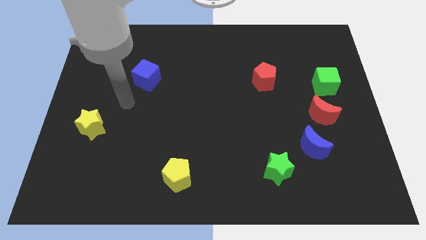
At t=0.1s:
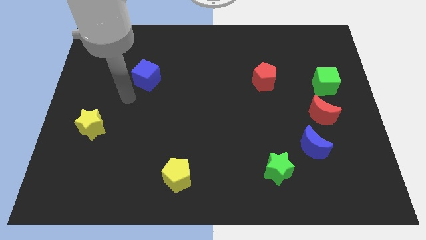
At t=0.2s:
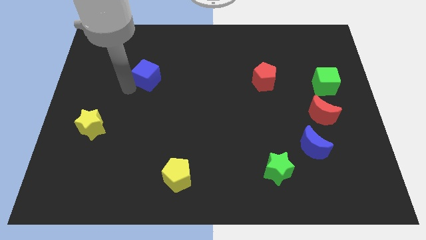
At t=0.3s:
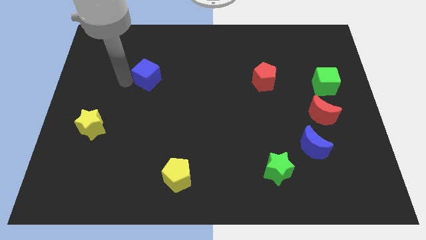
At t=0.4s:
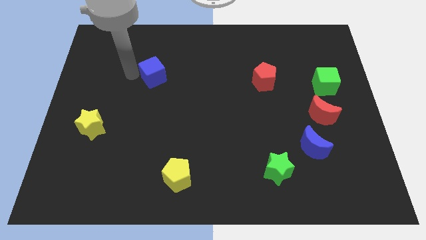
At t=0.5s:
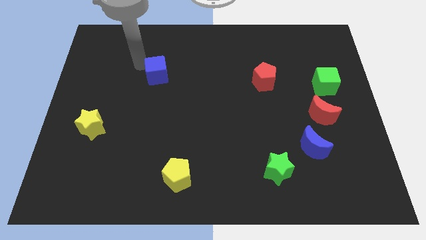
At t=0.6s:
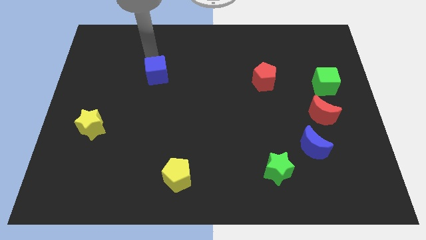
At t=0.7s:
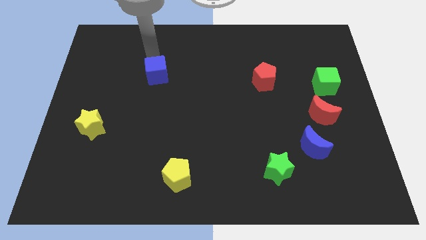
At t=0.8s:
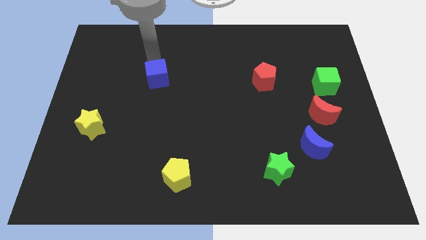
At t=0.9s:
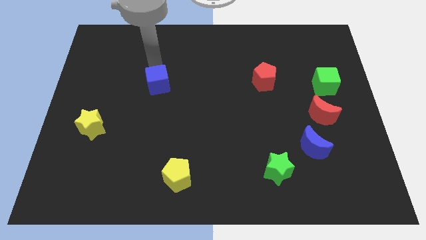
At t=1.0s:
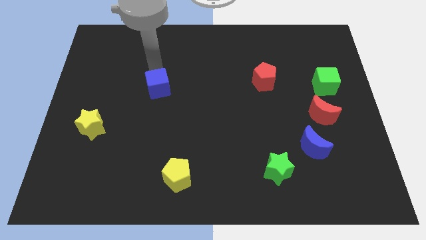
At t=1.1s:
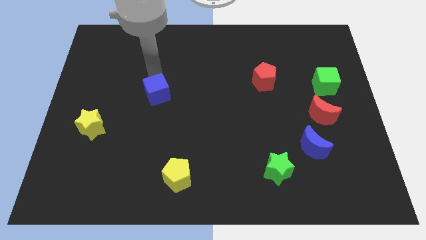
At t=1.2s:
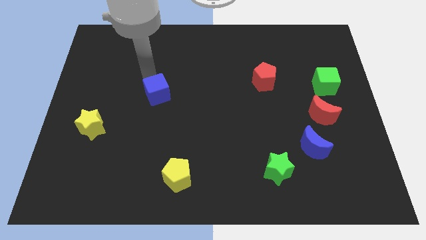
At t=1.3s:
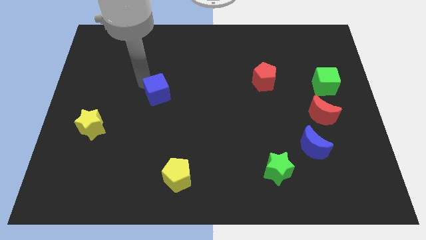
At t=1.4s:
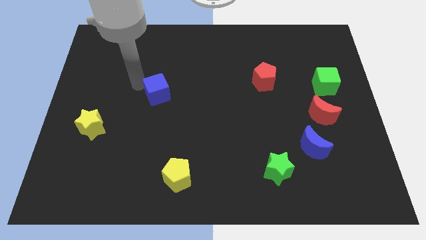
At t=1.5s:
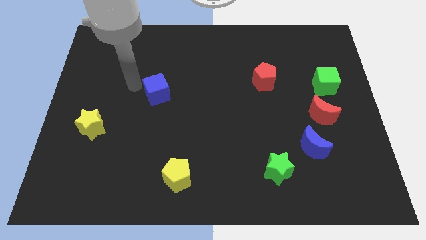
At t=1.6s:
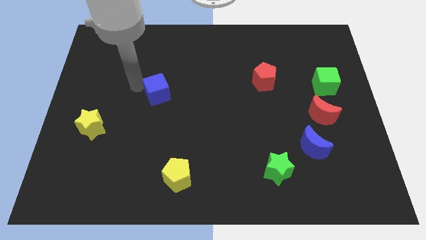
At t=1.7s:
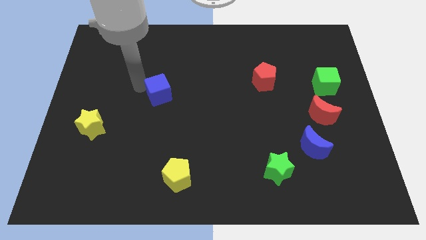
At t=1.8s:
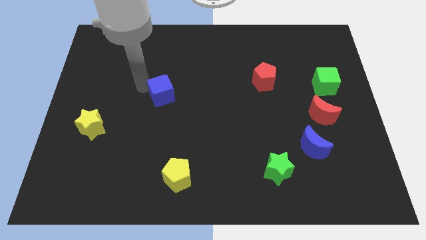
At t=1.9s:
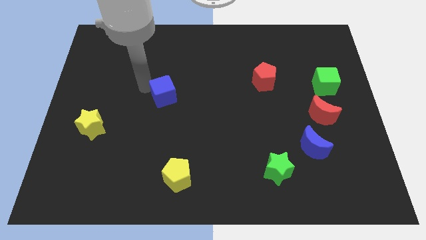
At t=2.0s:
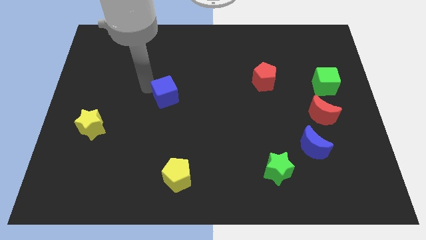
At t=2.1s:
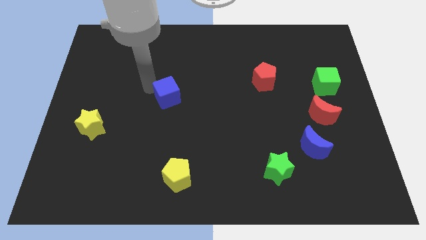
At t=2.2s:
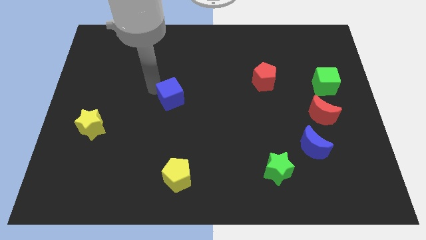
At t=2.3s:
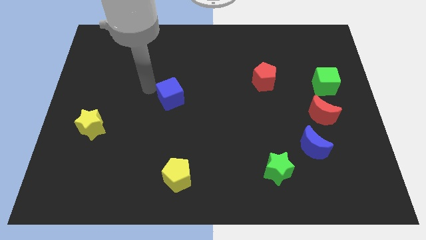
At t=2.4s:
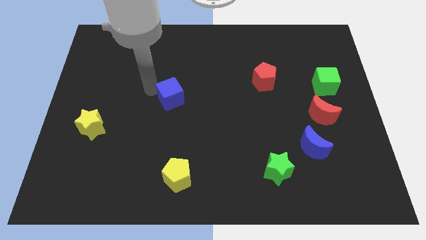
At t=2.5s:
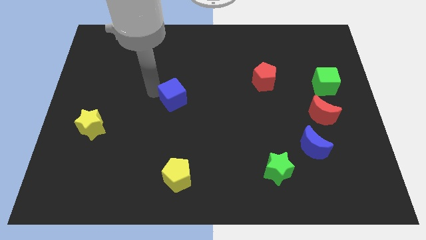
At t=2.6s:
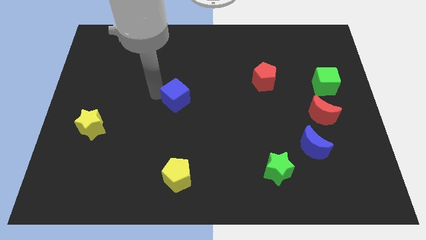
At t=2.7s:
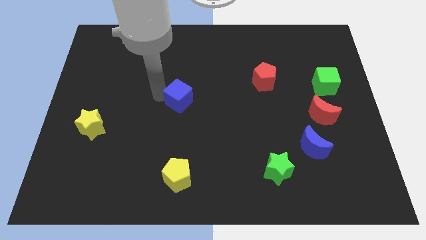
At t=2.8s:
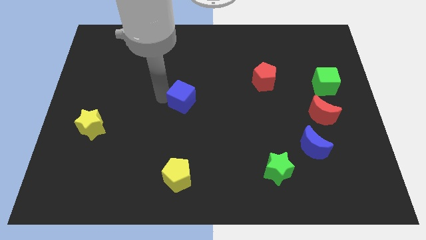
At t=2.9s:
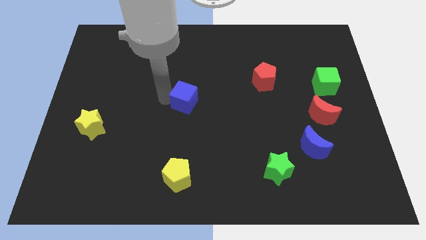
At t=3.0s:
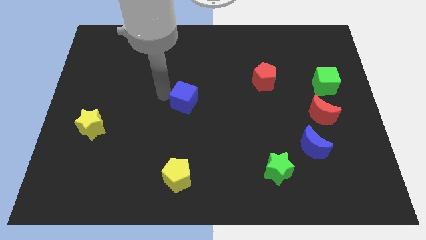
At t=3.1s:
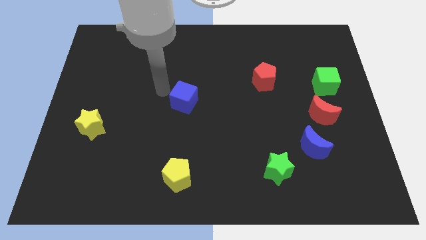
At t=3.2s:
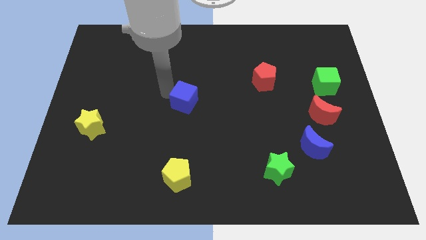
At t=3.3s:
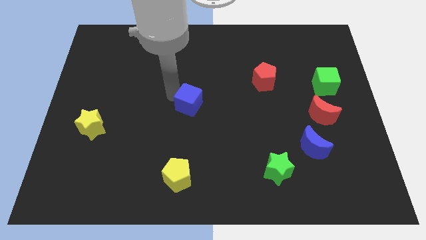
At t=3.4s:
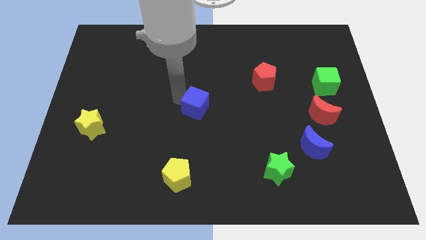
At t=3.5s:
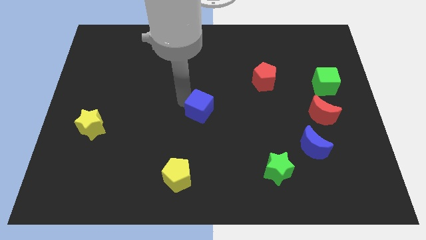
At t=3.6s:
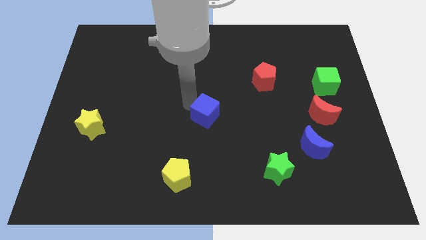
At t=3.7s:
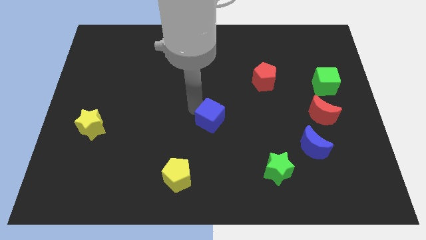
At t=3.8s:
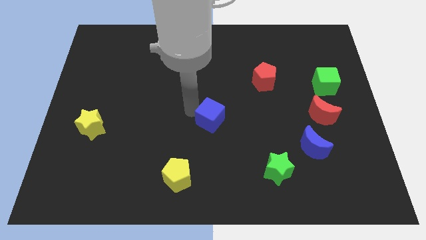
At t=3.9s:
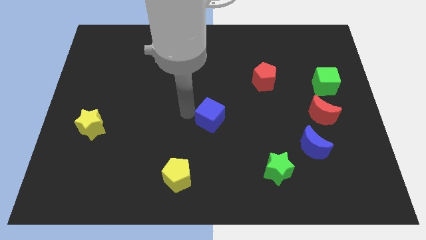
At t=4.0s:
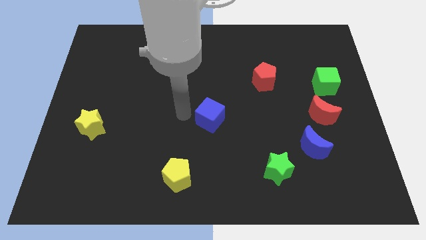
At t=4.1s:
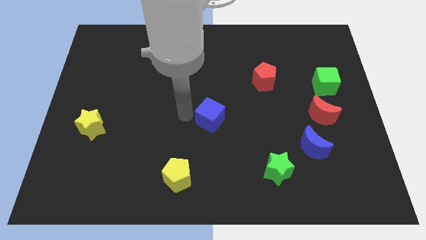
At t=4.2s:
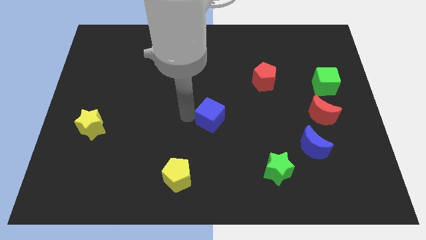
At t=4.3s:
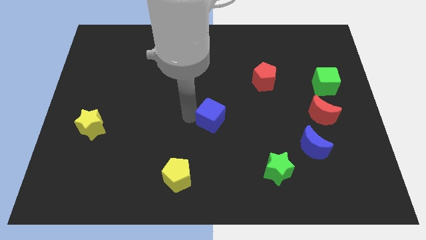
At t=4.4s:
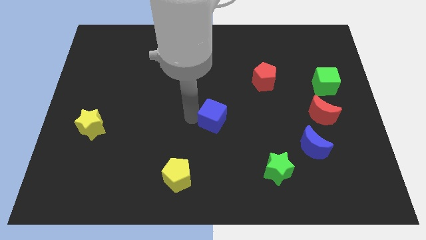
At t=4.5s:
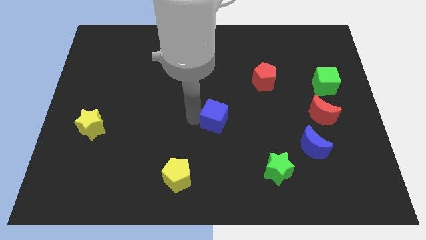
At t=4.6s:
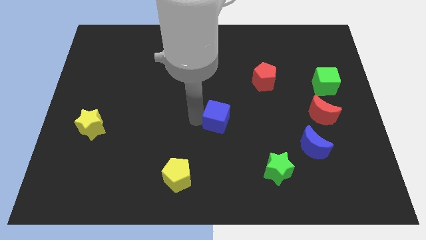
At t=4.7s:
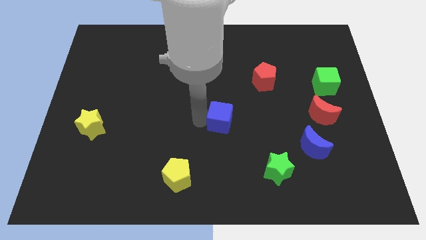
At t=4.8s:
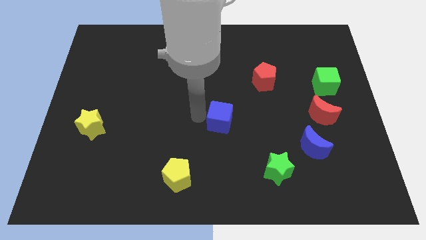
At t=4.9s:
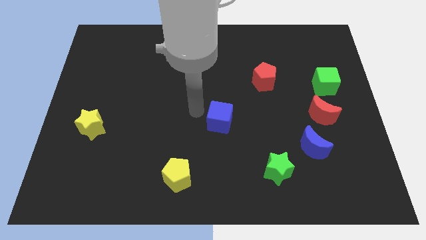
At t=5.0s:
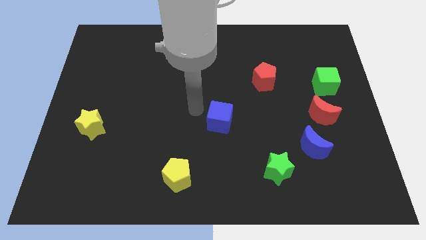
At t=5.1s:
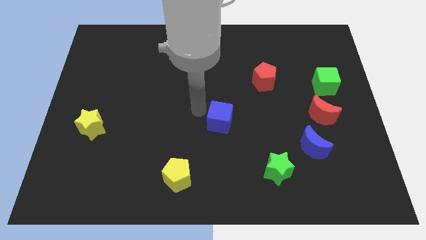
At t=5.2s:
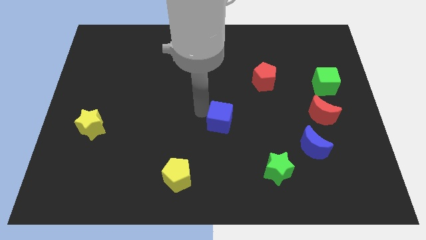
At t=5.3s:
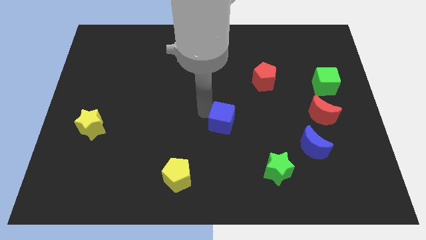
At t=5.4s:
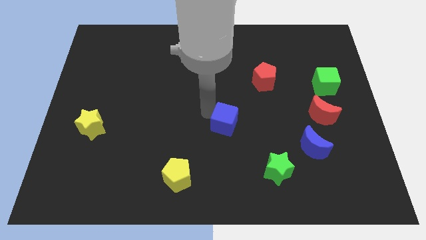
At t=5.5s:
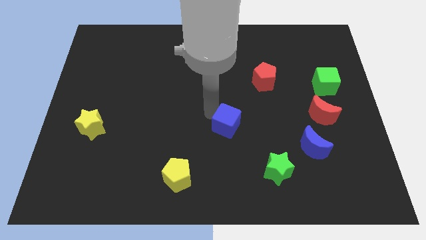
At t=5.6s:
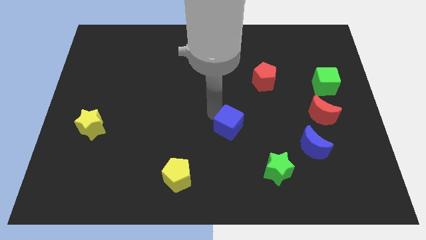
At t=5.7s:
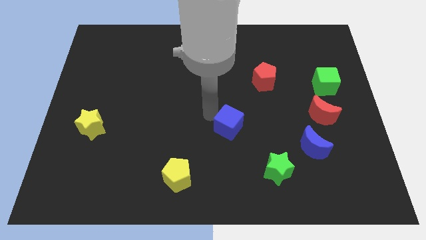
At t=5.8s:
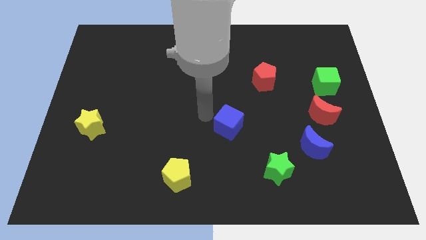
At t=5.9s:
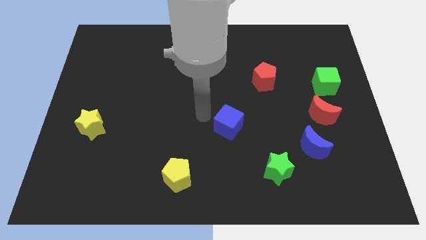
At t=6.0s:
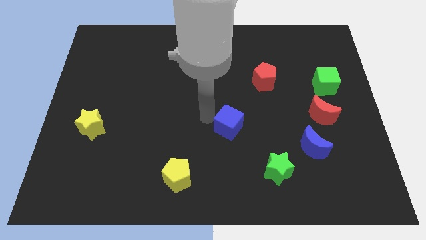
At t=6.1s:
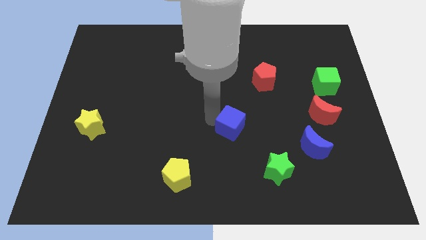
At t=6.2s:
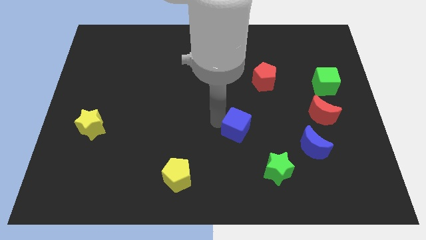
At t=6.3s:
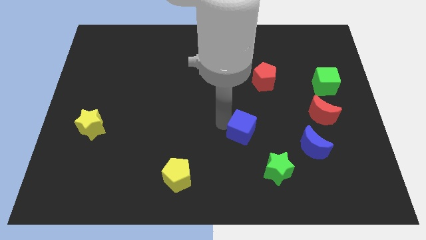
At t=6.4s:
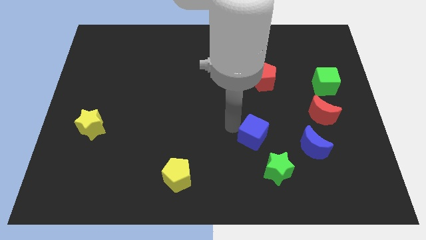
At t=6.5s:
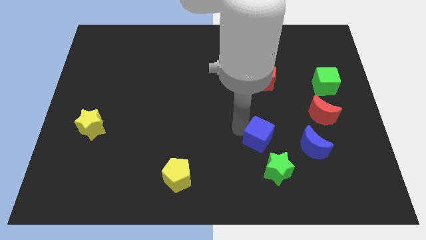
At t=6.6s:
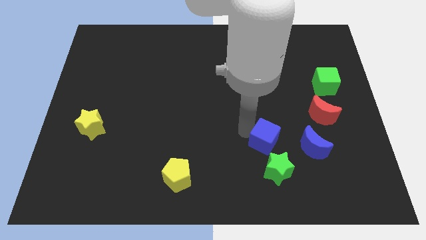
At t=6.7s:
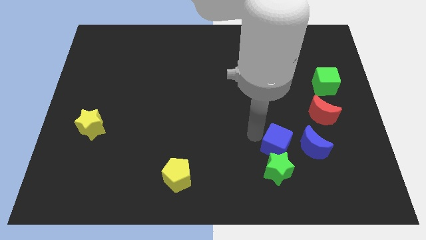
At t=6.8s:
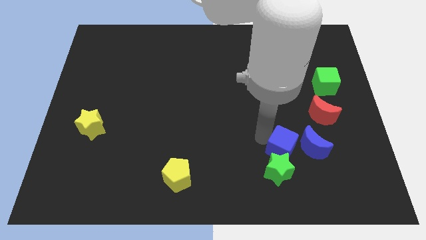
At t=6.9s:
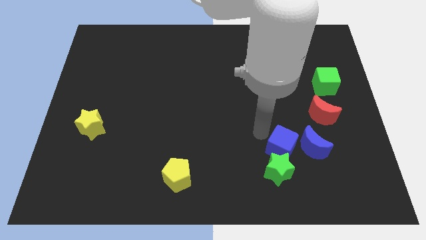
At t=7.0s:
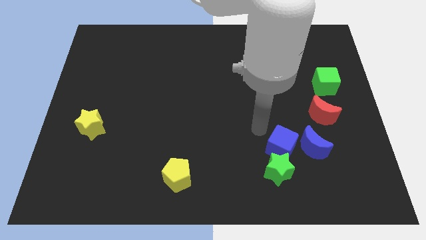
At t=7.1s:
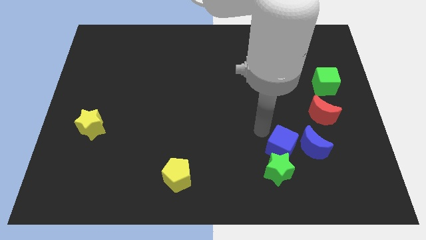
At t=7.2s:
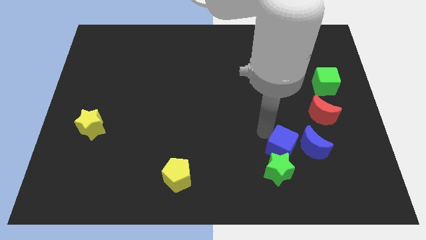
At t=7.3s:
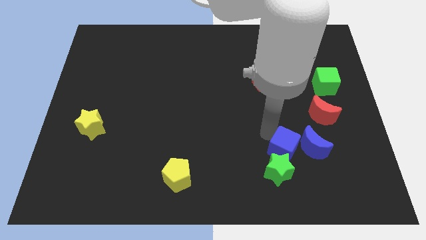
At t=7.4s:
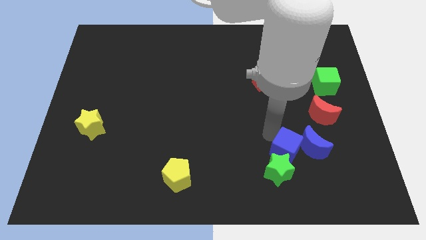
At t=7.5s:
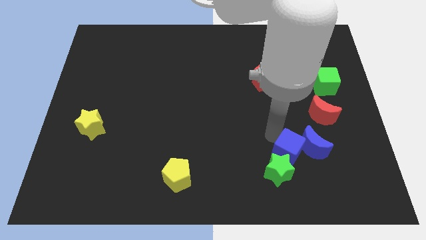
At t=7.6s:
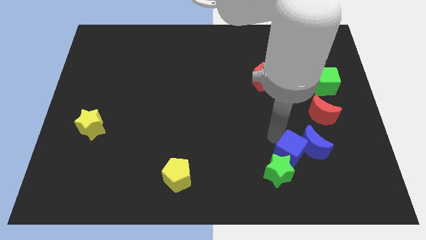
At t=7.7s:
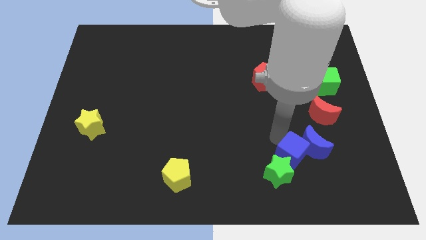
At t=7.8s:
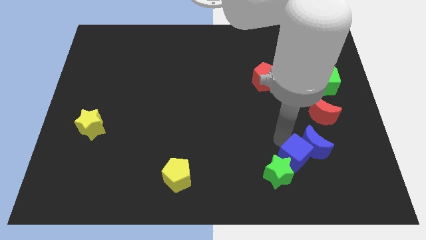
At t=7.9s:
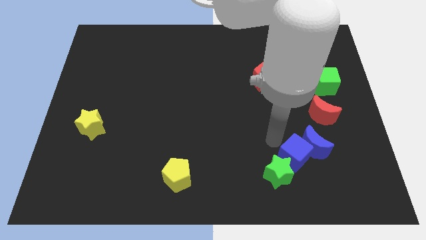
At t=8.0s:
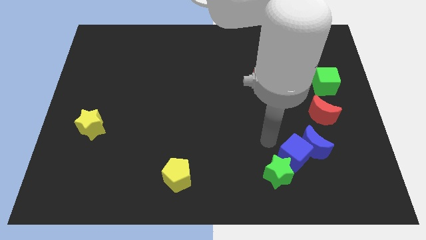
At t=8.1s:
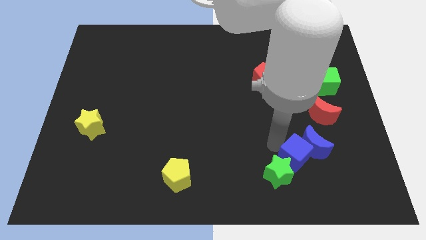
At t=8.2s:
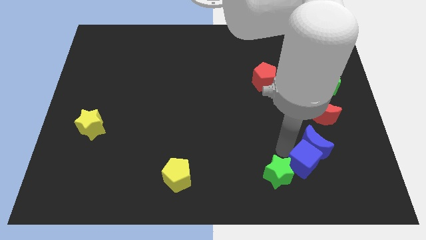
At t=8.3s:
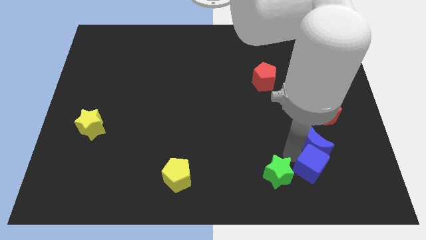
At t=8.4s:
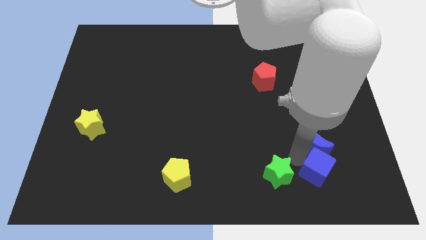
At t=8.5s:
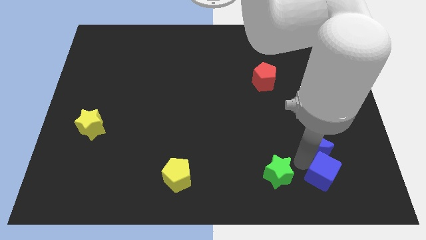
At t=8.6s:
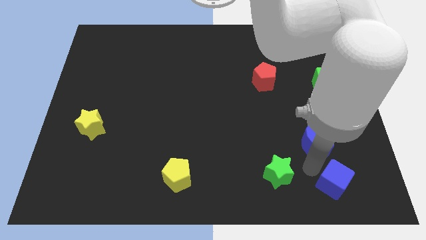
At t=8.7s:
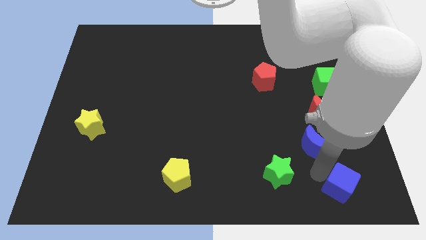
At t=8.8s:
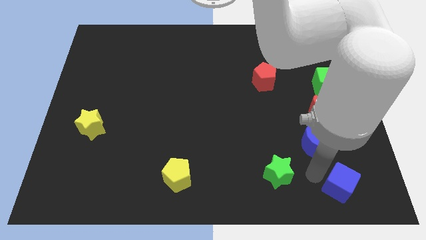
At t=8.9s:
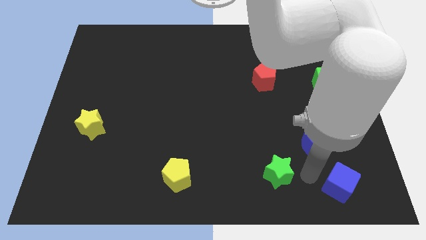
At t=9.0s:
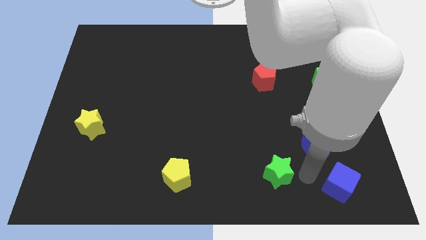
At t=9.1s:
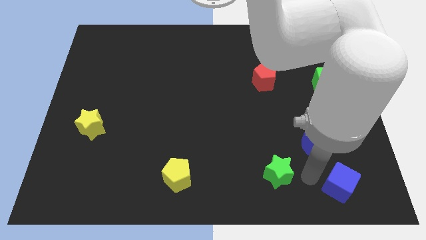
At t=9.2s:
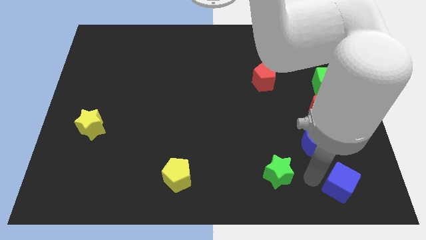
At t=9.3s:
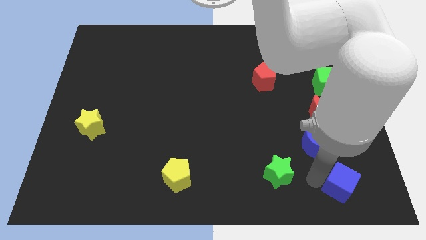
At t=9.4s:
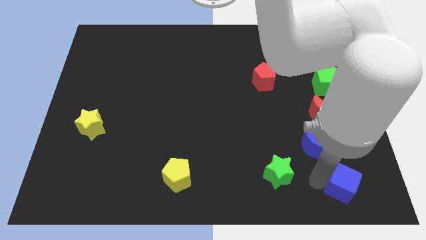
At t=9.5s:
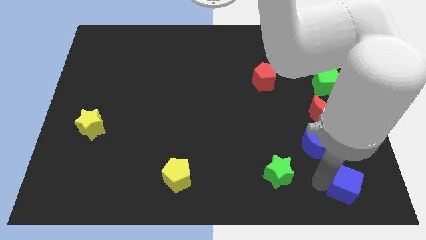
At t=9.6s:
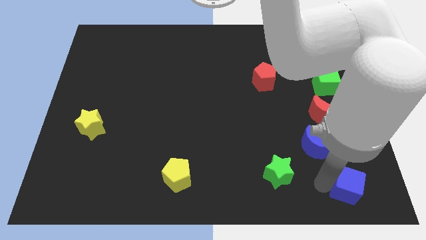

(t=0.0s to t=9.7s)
slide the blue cube to the bottom right of the board
